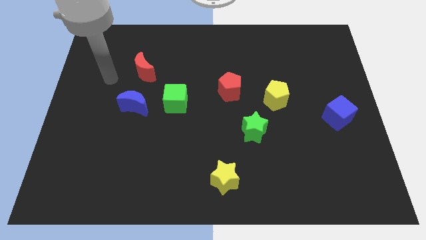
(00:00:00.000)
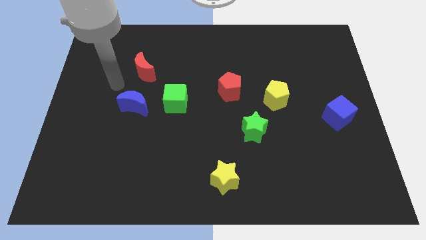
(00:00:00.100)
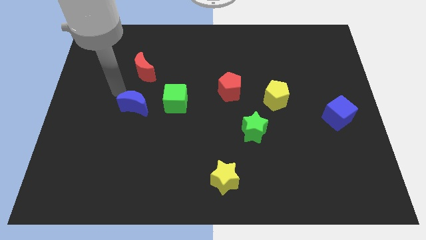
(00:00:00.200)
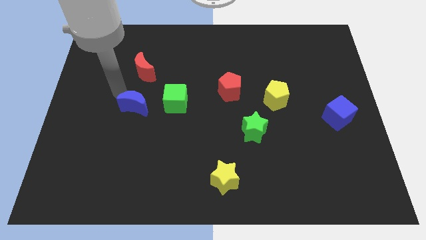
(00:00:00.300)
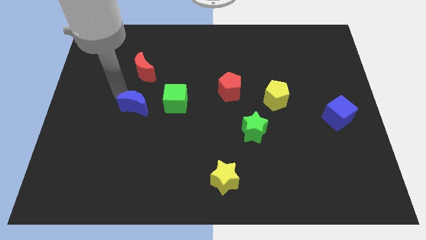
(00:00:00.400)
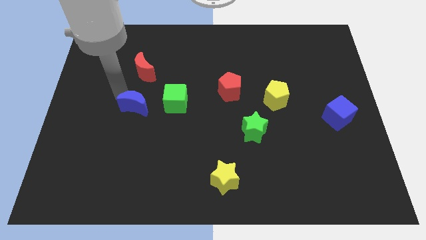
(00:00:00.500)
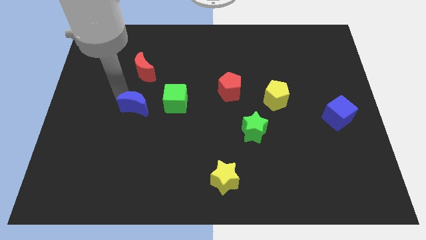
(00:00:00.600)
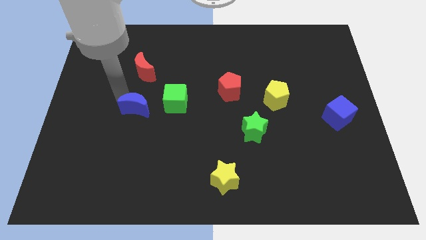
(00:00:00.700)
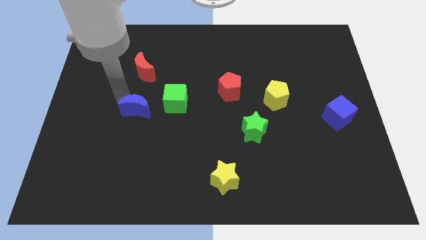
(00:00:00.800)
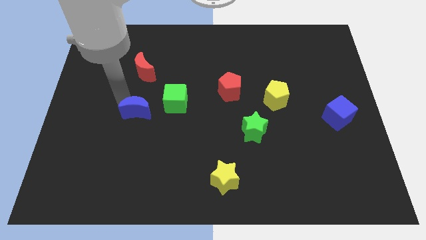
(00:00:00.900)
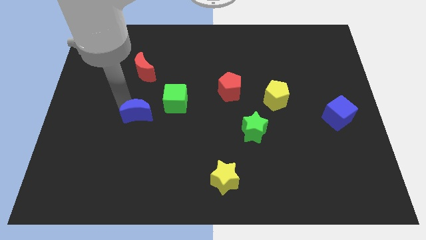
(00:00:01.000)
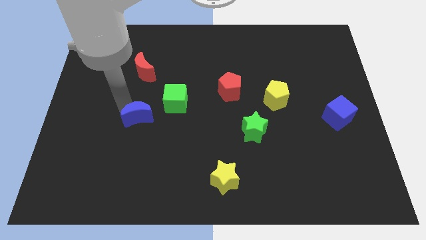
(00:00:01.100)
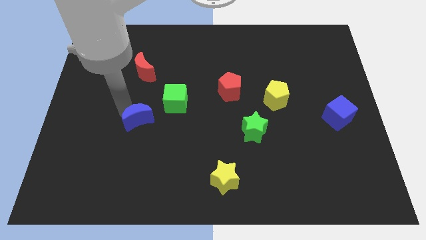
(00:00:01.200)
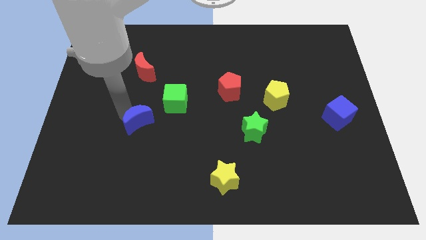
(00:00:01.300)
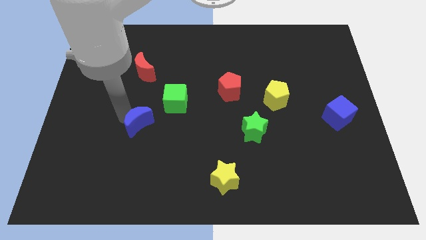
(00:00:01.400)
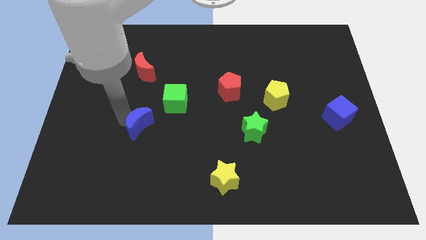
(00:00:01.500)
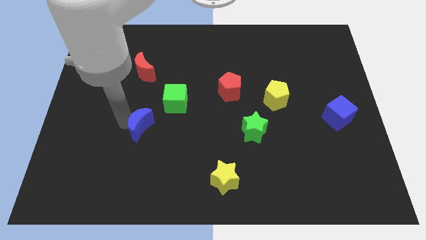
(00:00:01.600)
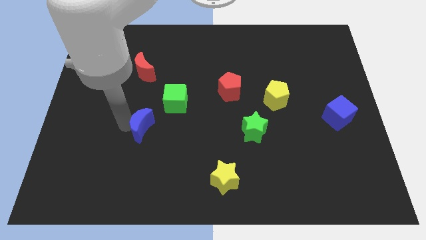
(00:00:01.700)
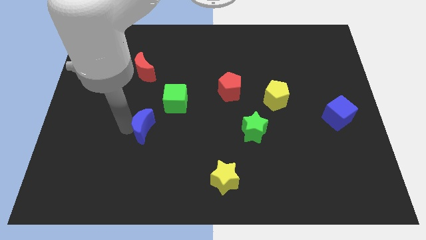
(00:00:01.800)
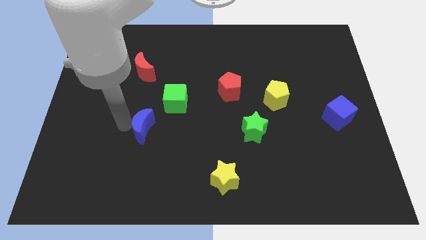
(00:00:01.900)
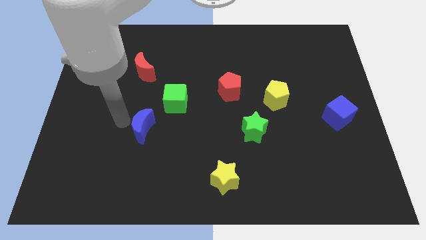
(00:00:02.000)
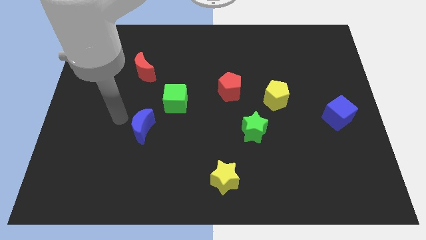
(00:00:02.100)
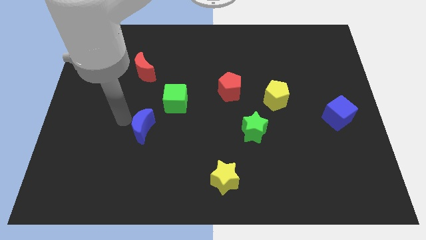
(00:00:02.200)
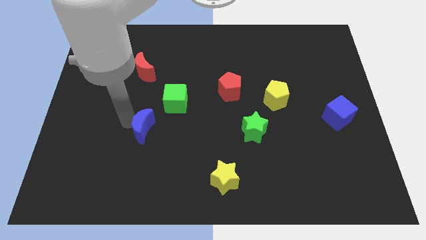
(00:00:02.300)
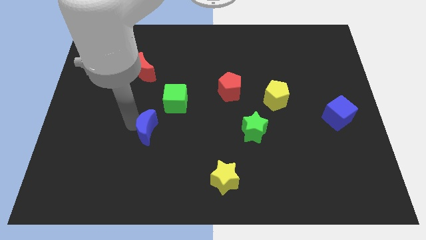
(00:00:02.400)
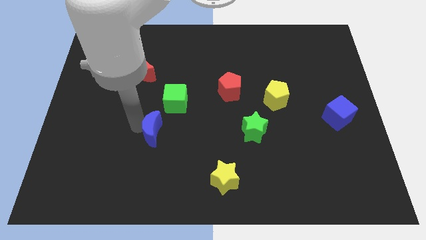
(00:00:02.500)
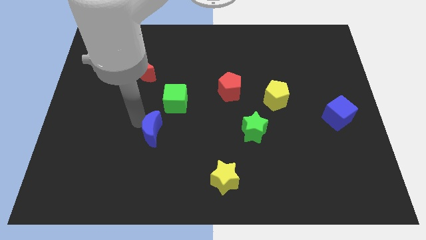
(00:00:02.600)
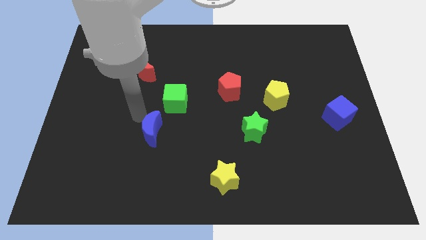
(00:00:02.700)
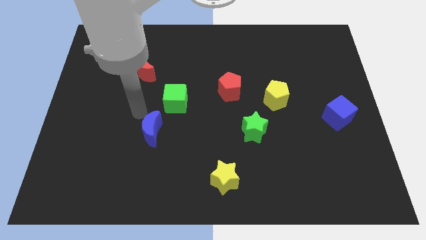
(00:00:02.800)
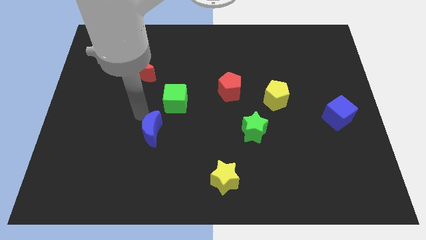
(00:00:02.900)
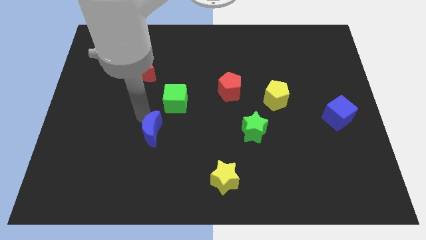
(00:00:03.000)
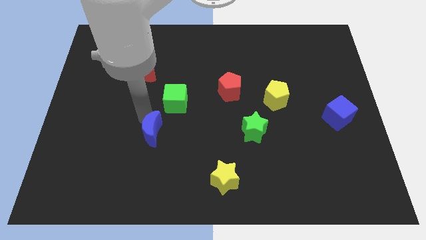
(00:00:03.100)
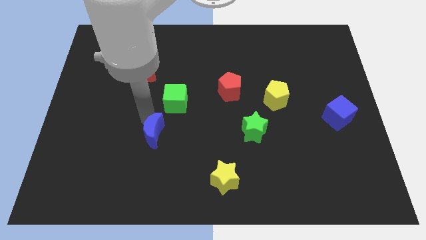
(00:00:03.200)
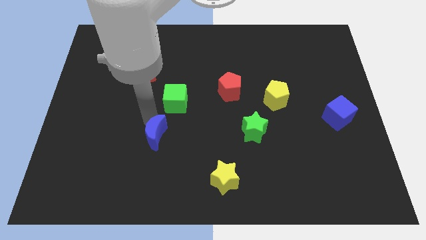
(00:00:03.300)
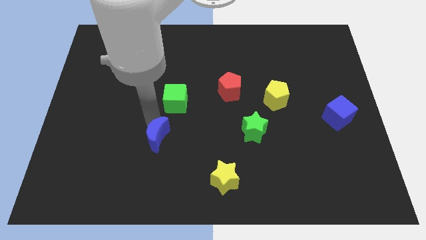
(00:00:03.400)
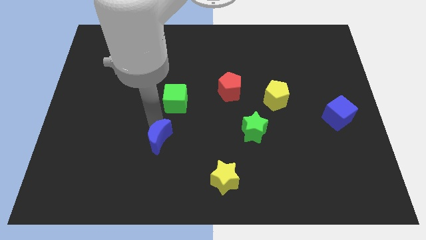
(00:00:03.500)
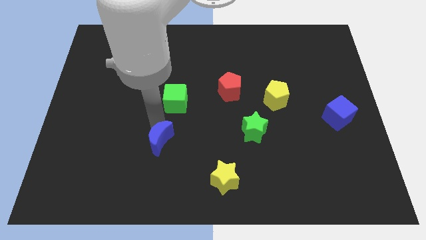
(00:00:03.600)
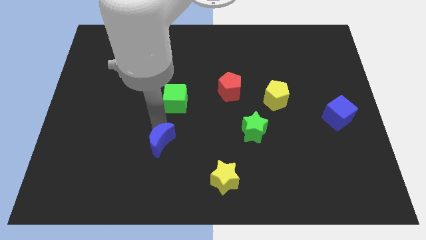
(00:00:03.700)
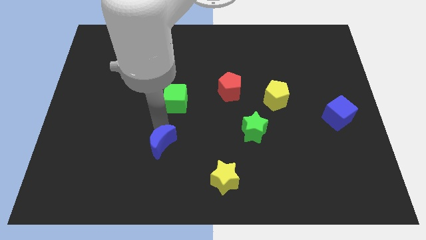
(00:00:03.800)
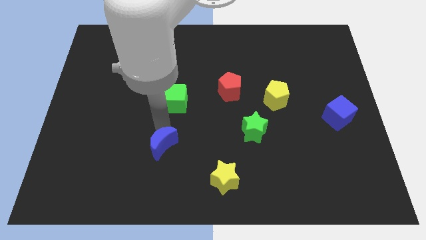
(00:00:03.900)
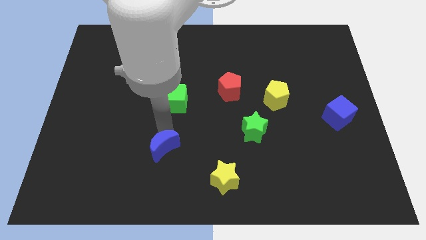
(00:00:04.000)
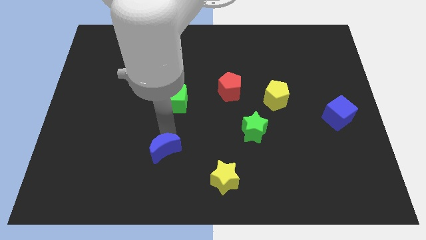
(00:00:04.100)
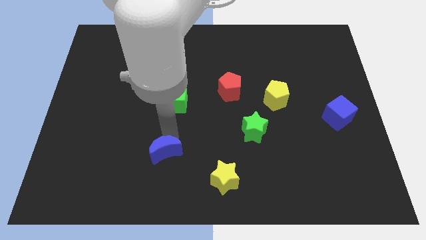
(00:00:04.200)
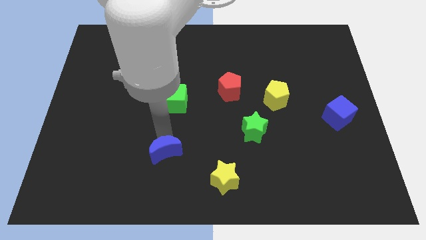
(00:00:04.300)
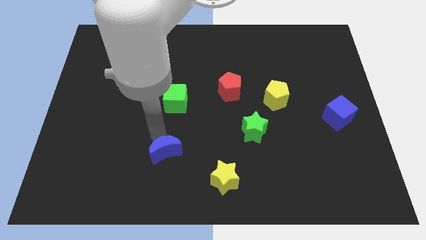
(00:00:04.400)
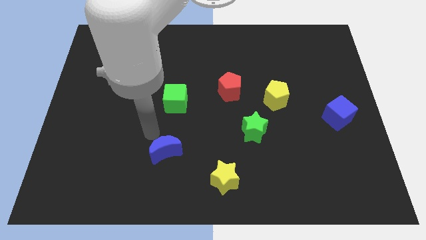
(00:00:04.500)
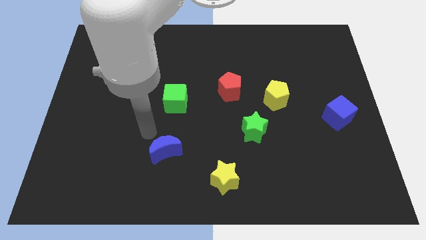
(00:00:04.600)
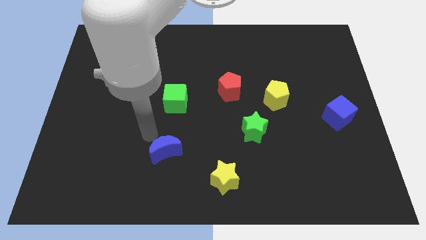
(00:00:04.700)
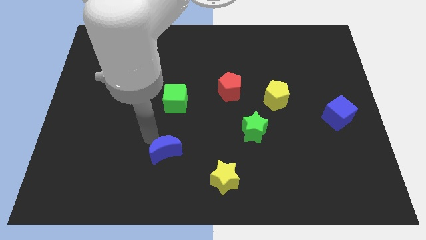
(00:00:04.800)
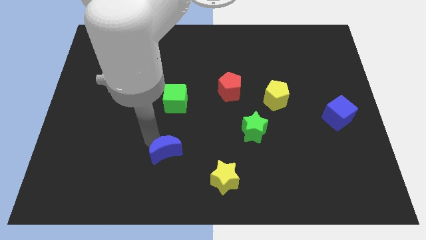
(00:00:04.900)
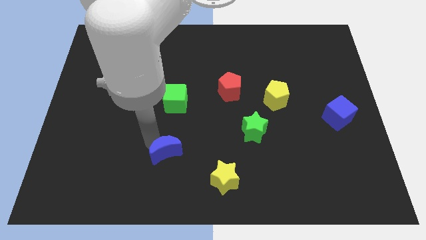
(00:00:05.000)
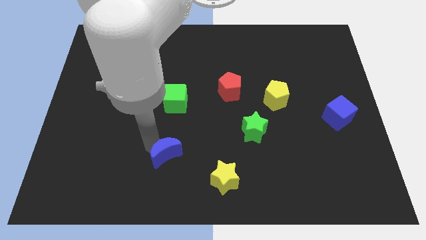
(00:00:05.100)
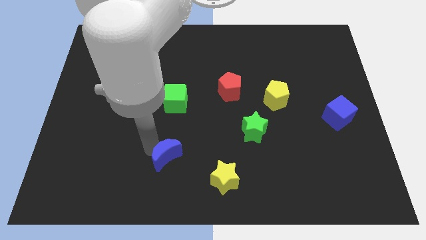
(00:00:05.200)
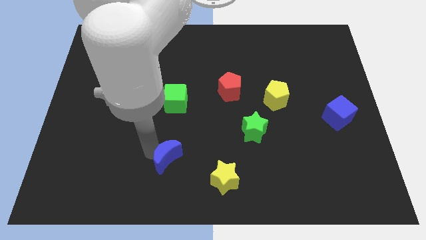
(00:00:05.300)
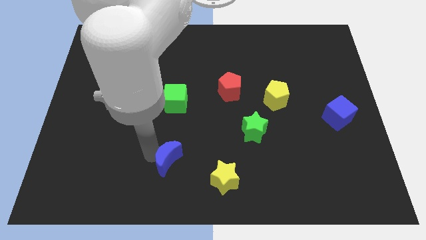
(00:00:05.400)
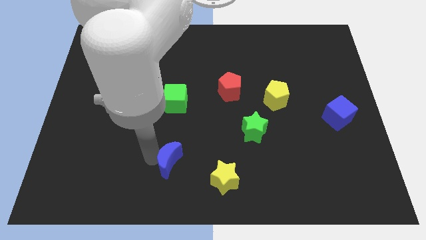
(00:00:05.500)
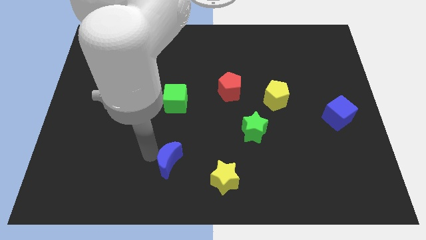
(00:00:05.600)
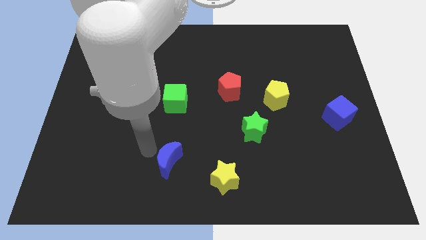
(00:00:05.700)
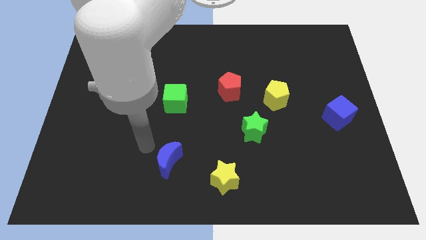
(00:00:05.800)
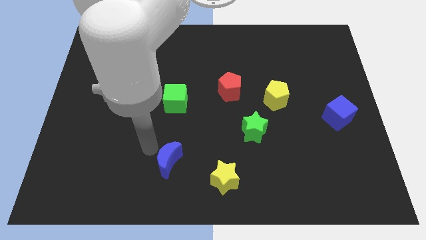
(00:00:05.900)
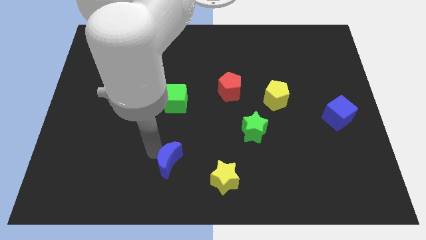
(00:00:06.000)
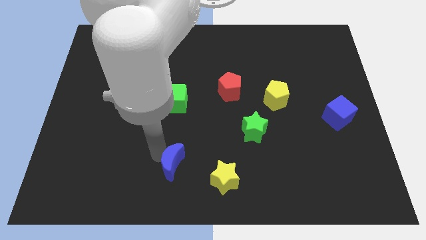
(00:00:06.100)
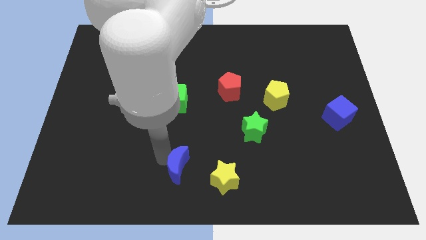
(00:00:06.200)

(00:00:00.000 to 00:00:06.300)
move the blue moon to the bottom side

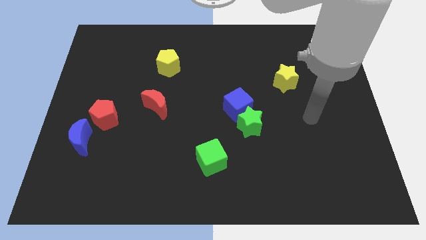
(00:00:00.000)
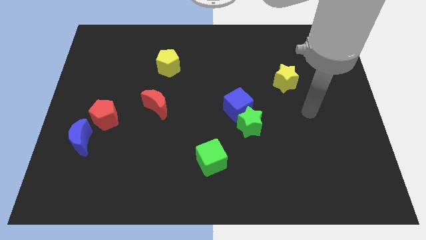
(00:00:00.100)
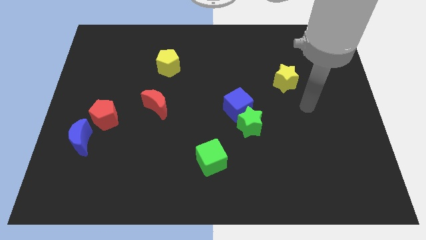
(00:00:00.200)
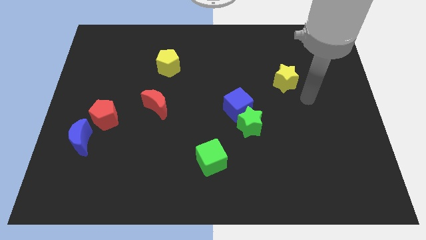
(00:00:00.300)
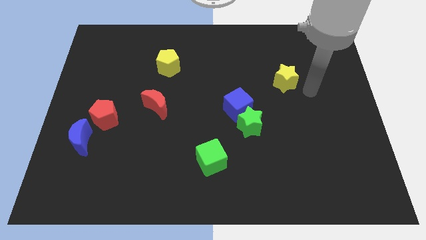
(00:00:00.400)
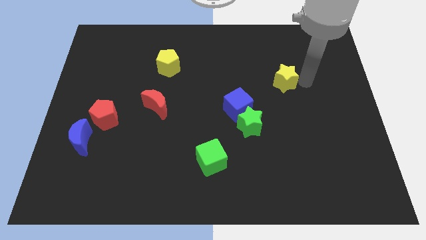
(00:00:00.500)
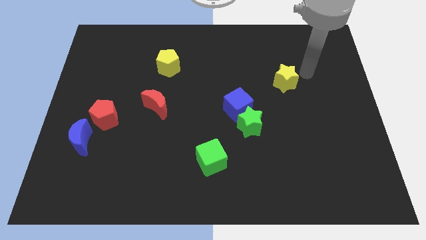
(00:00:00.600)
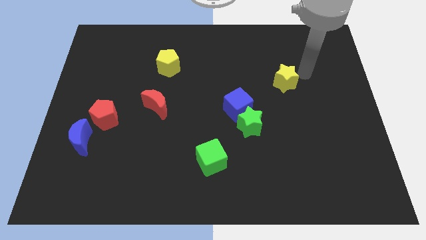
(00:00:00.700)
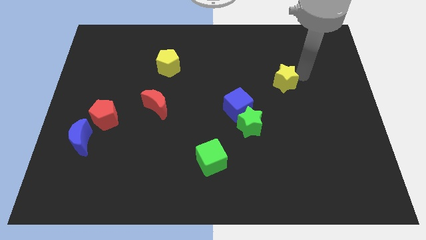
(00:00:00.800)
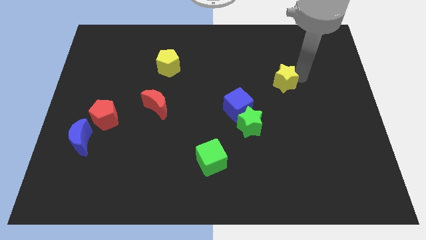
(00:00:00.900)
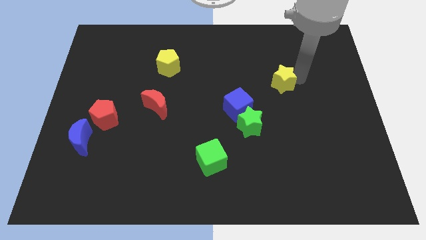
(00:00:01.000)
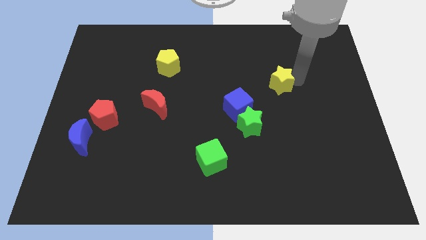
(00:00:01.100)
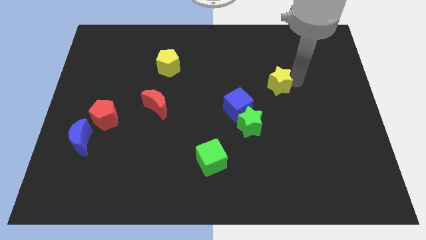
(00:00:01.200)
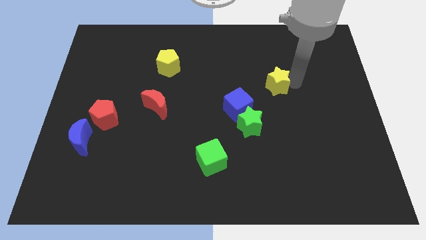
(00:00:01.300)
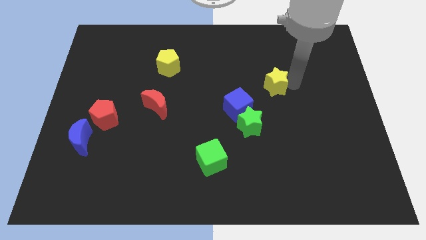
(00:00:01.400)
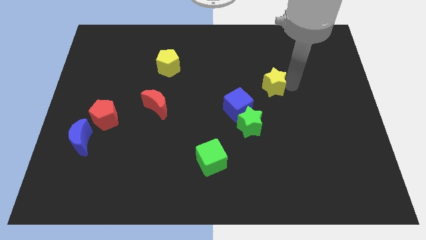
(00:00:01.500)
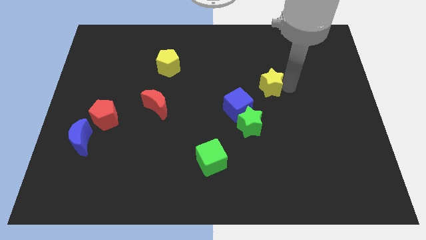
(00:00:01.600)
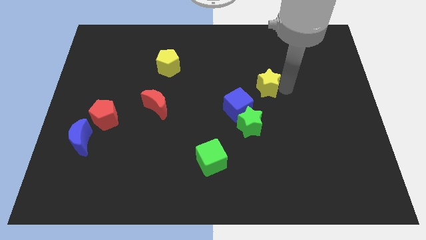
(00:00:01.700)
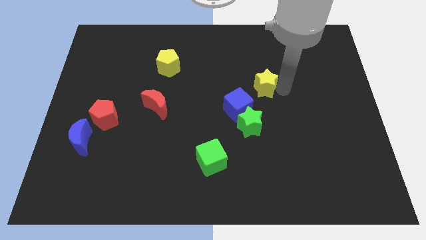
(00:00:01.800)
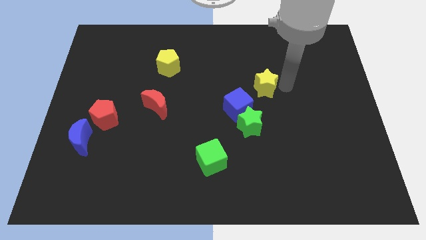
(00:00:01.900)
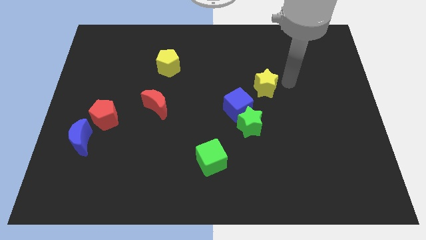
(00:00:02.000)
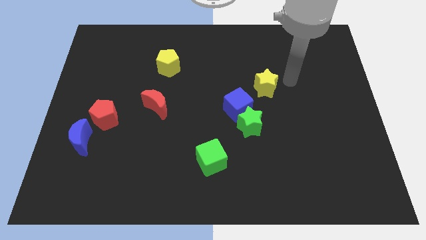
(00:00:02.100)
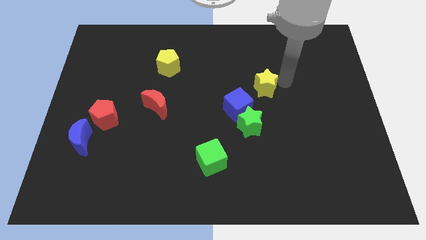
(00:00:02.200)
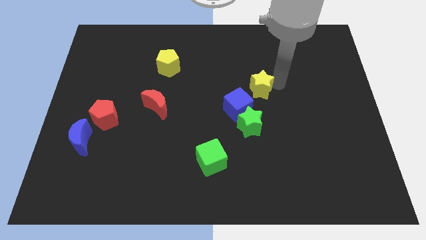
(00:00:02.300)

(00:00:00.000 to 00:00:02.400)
put the yellow star to the middle of the board
